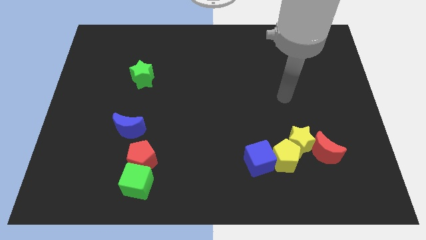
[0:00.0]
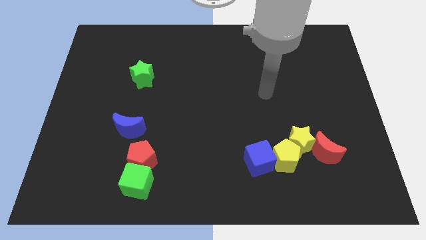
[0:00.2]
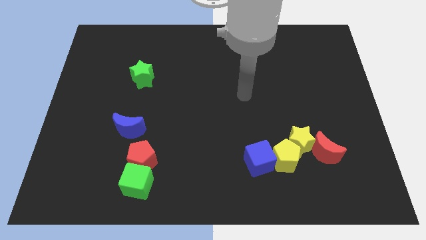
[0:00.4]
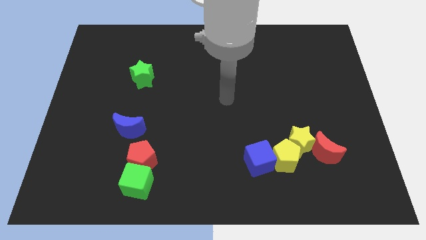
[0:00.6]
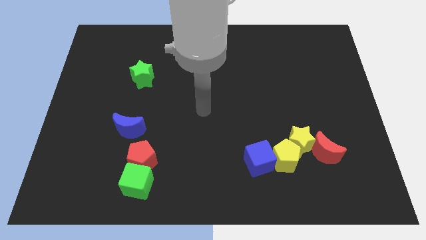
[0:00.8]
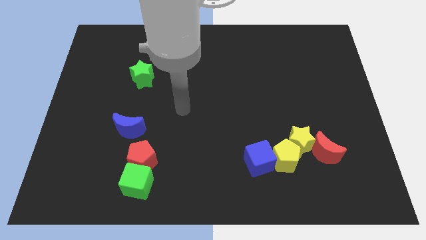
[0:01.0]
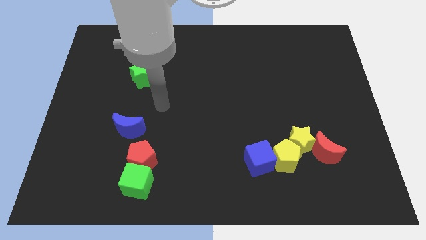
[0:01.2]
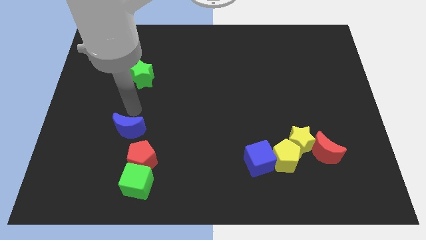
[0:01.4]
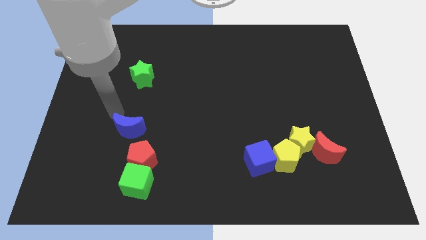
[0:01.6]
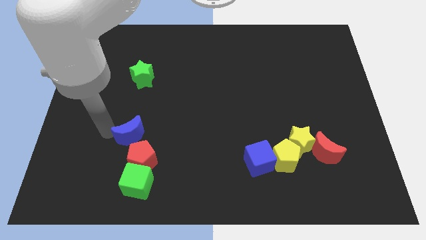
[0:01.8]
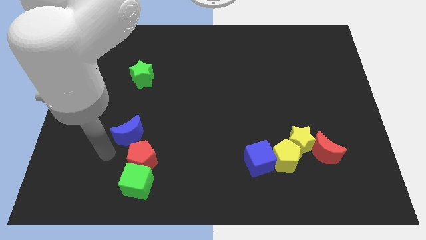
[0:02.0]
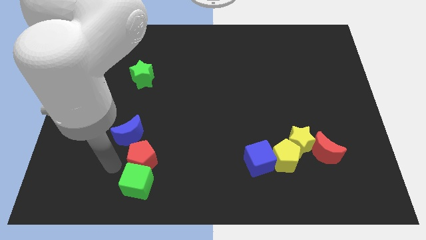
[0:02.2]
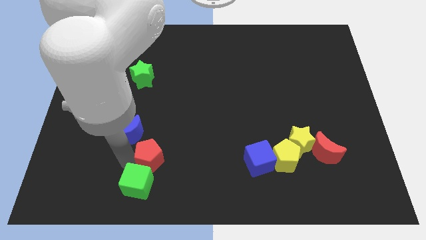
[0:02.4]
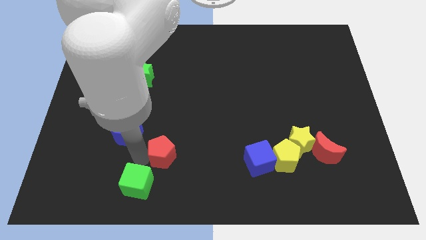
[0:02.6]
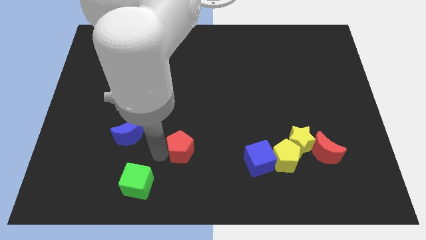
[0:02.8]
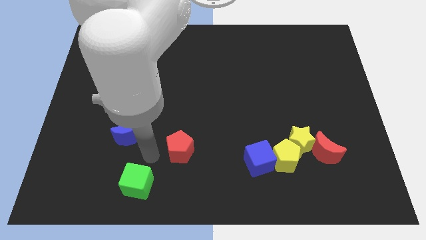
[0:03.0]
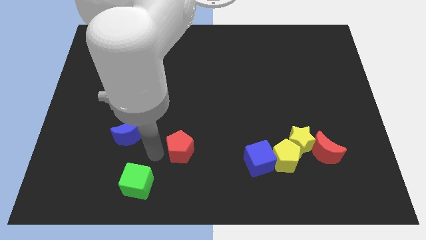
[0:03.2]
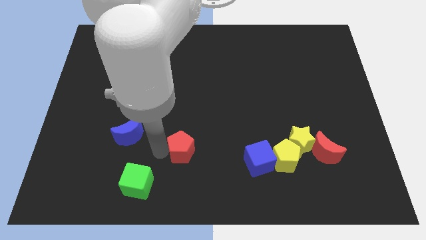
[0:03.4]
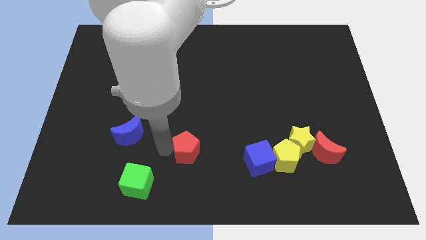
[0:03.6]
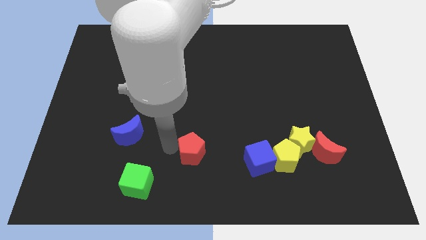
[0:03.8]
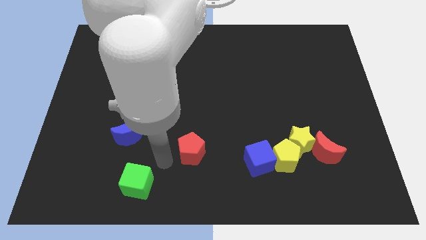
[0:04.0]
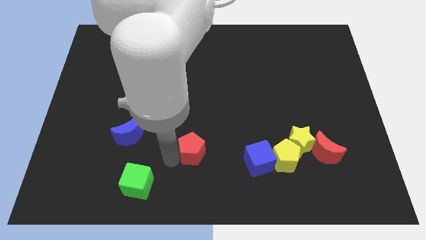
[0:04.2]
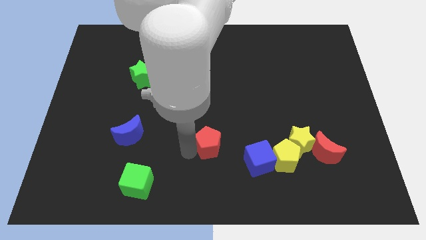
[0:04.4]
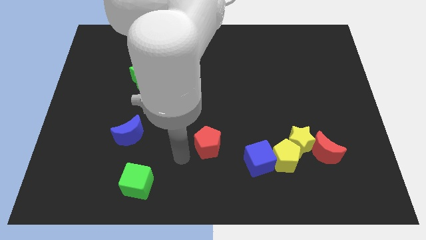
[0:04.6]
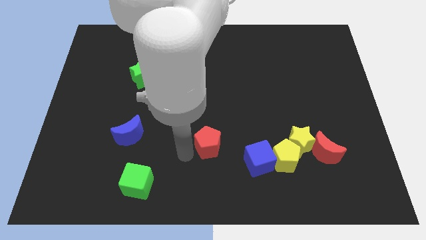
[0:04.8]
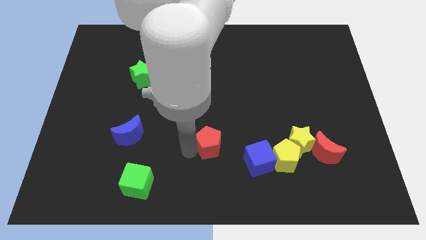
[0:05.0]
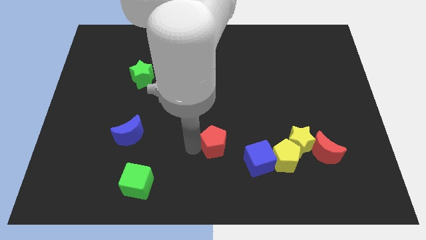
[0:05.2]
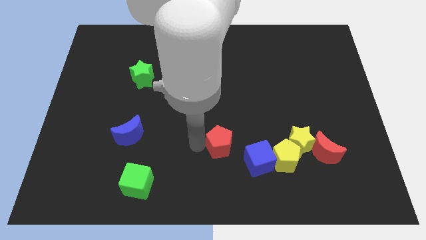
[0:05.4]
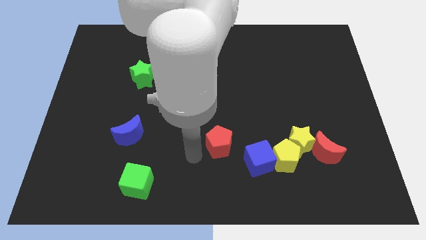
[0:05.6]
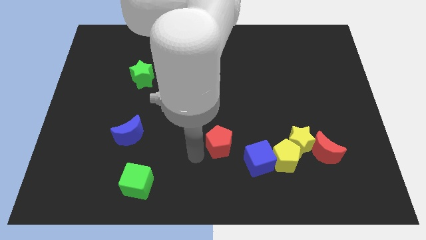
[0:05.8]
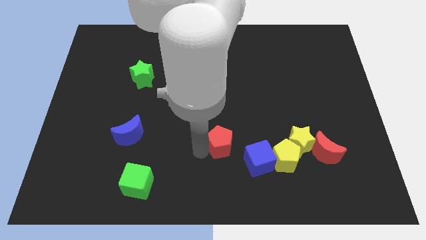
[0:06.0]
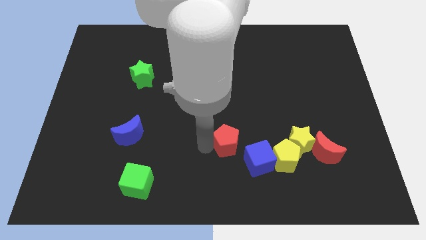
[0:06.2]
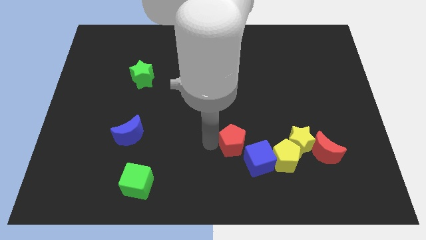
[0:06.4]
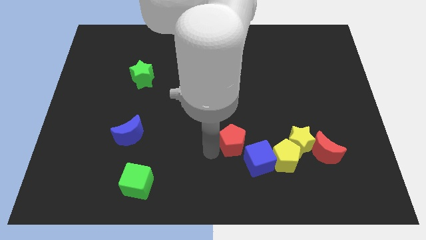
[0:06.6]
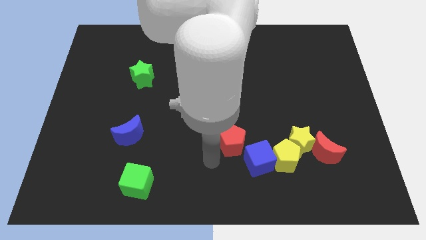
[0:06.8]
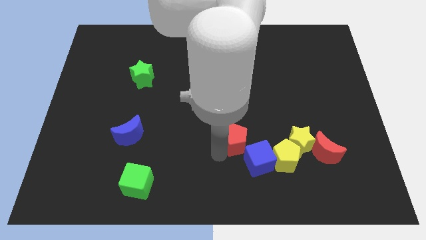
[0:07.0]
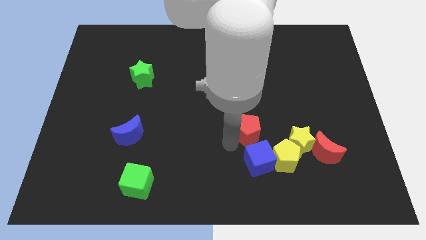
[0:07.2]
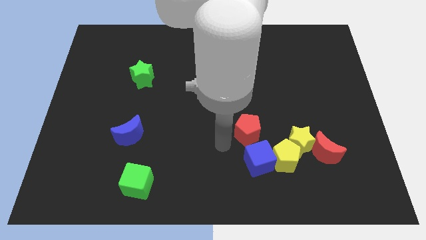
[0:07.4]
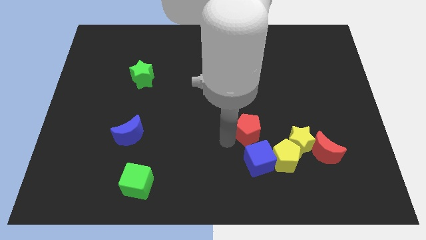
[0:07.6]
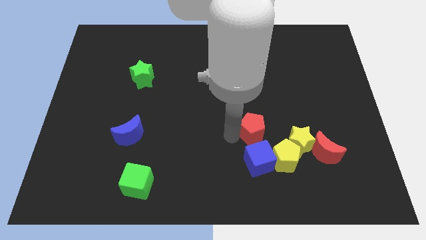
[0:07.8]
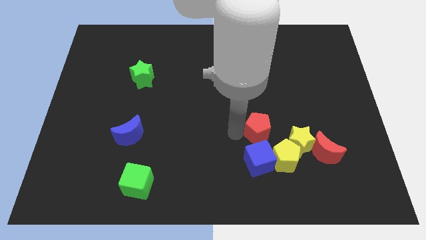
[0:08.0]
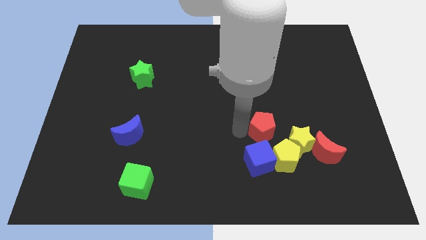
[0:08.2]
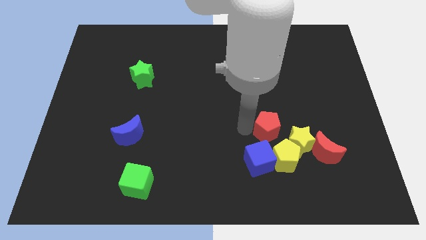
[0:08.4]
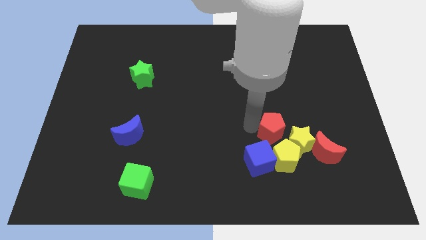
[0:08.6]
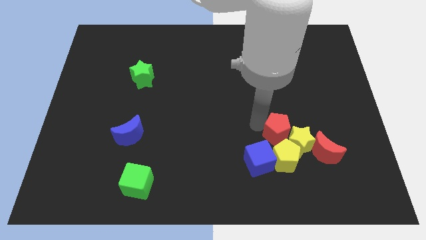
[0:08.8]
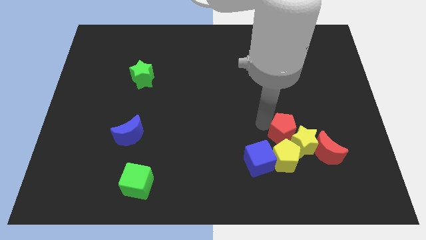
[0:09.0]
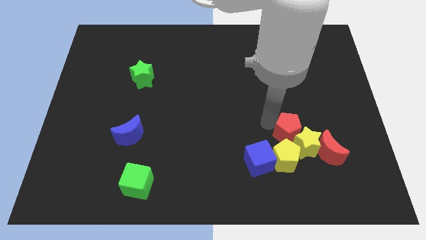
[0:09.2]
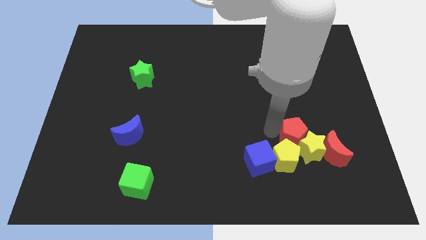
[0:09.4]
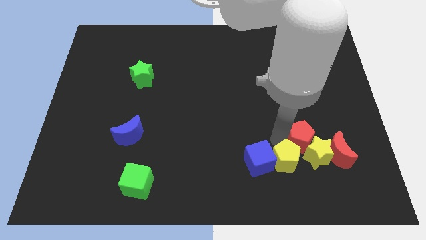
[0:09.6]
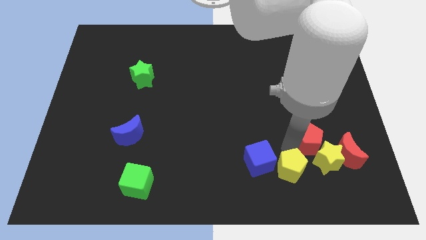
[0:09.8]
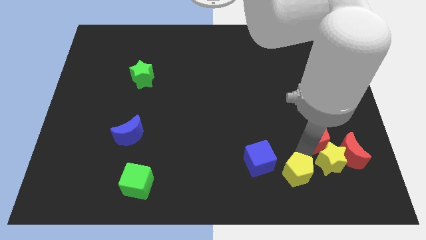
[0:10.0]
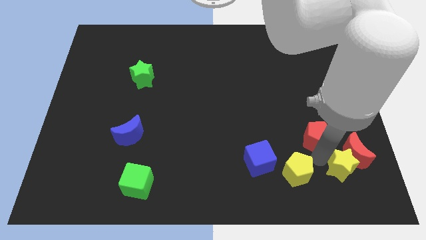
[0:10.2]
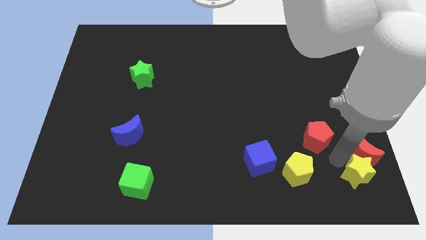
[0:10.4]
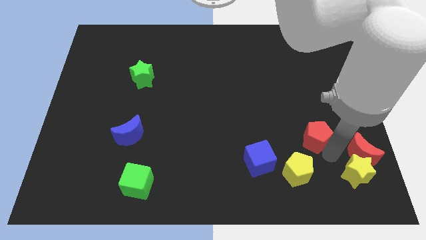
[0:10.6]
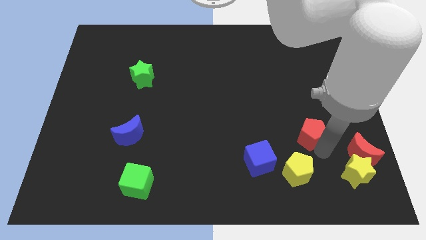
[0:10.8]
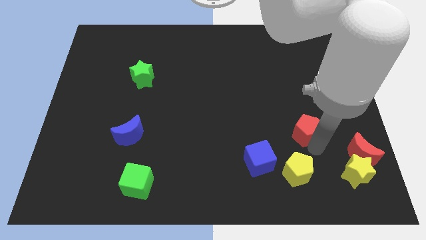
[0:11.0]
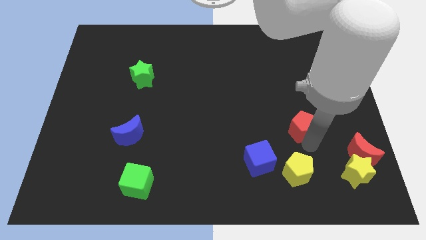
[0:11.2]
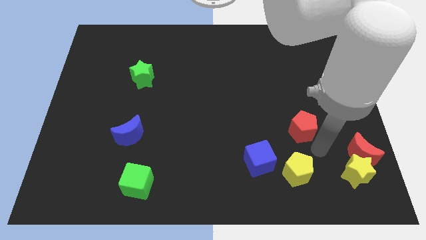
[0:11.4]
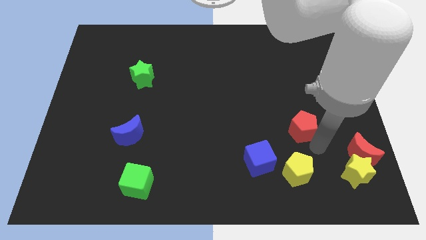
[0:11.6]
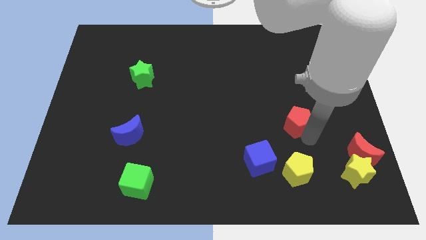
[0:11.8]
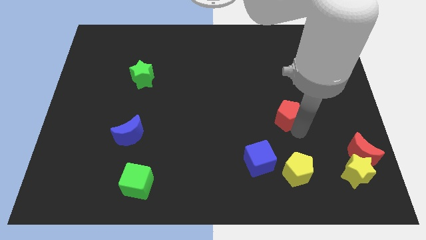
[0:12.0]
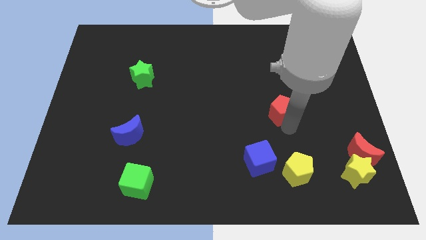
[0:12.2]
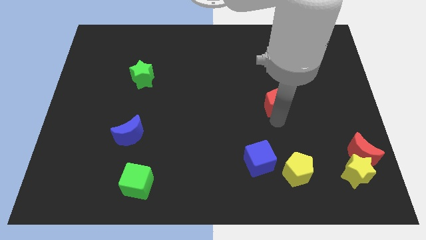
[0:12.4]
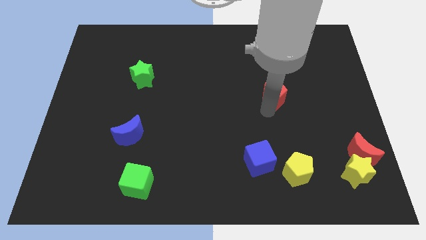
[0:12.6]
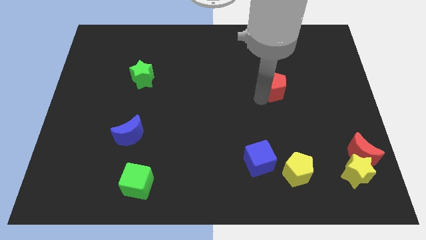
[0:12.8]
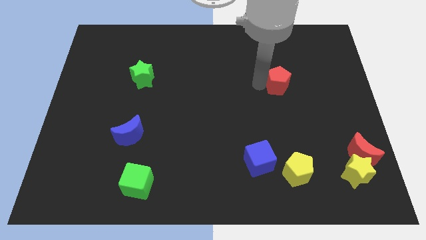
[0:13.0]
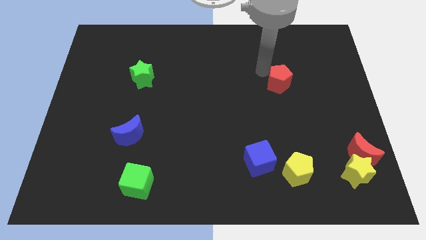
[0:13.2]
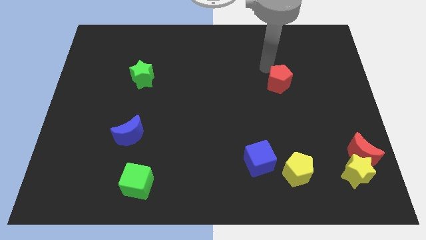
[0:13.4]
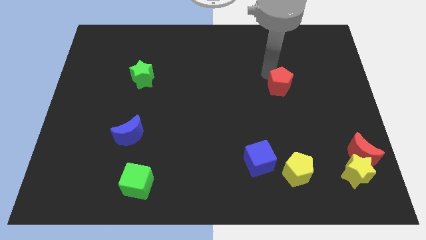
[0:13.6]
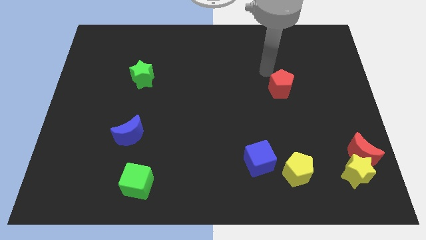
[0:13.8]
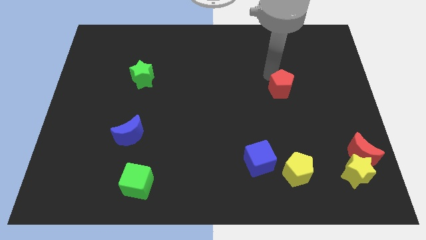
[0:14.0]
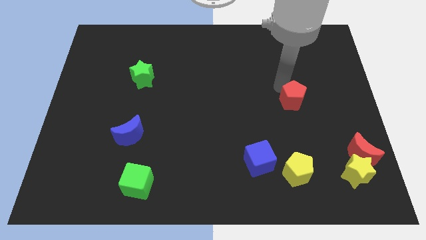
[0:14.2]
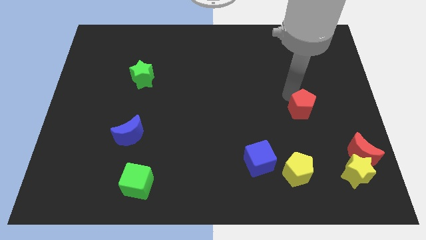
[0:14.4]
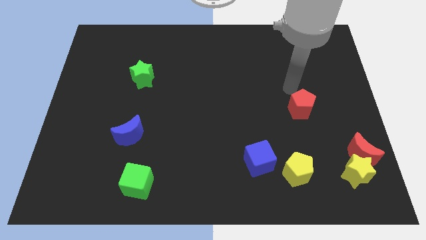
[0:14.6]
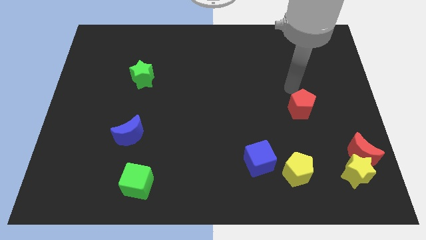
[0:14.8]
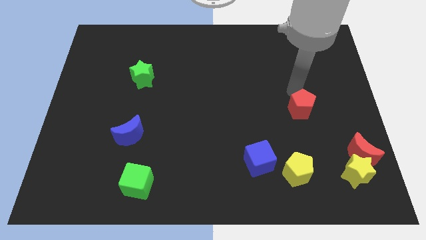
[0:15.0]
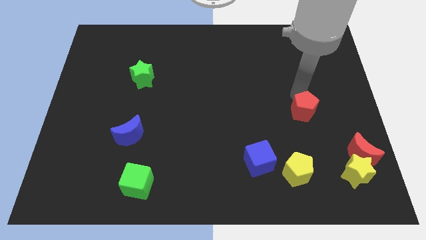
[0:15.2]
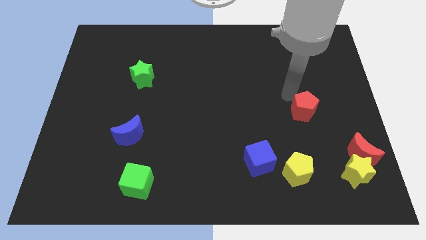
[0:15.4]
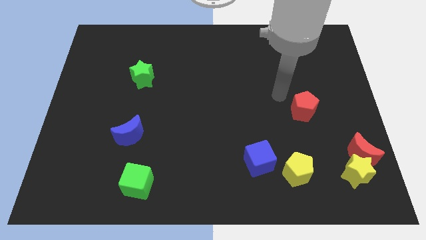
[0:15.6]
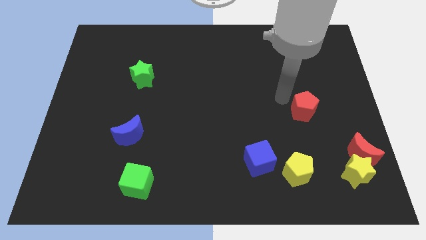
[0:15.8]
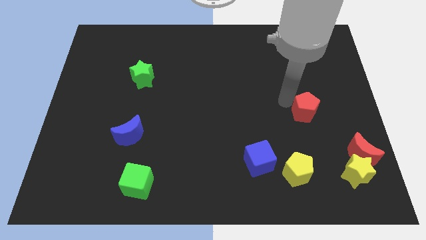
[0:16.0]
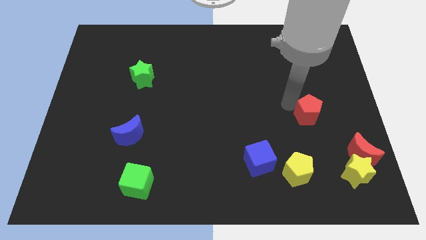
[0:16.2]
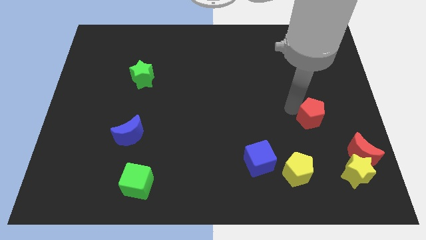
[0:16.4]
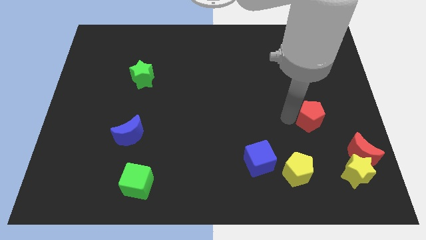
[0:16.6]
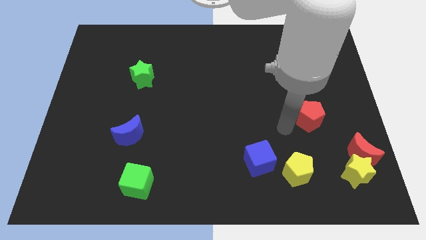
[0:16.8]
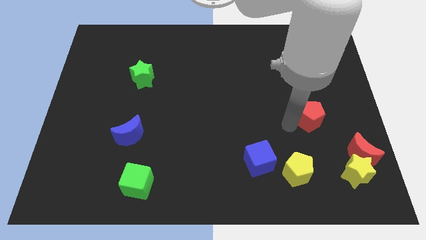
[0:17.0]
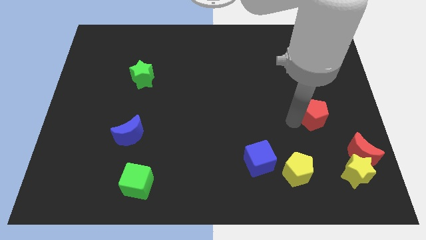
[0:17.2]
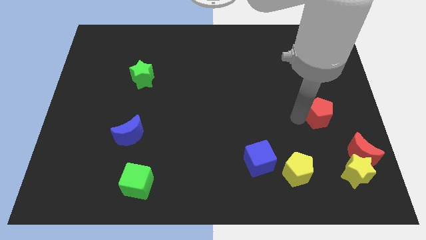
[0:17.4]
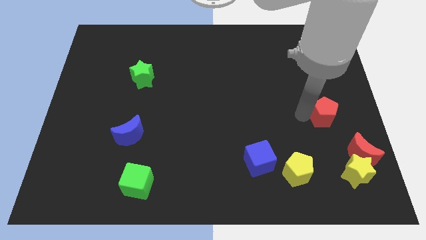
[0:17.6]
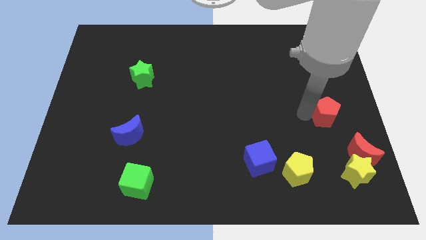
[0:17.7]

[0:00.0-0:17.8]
move the red pentagon to the right side of the board
